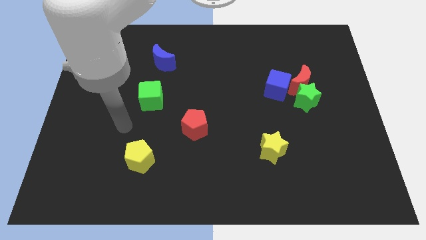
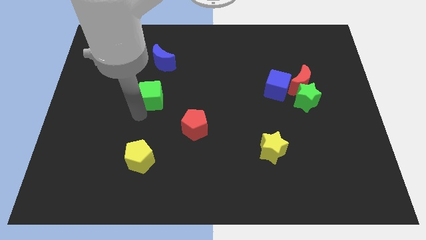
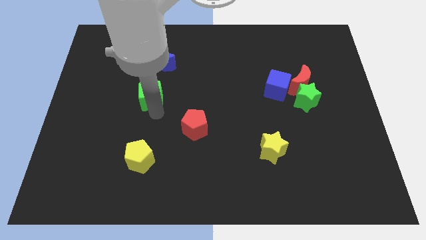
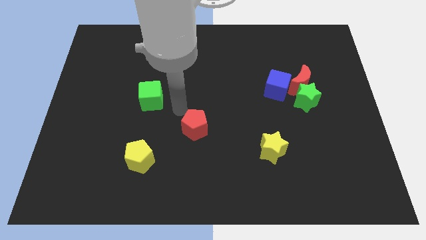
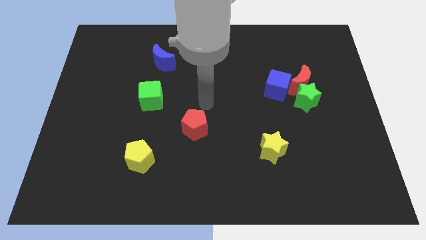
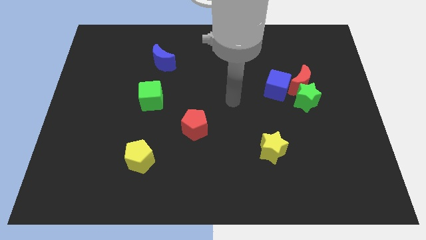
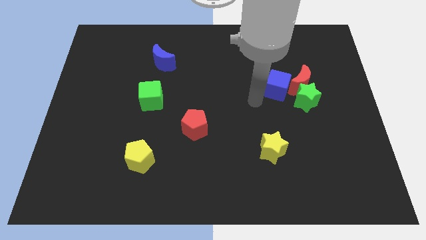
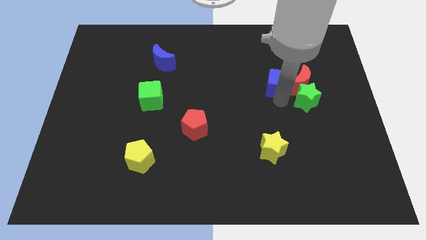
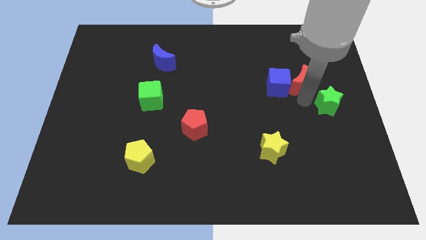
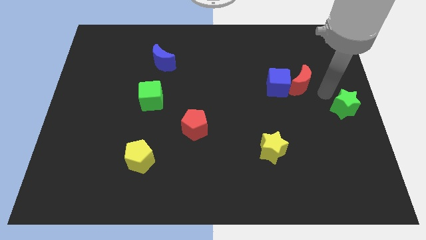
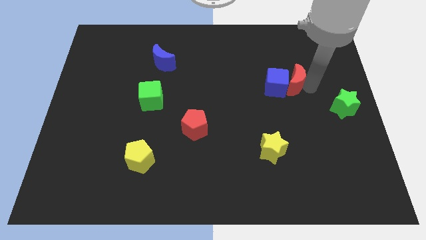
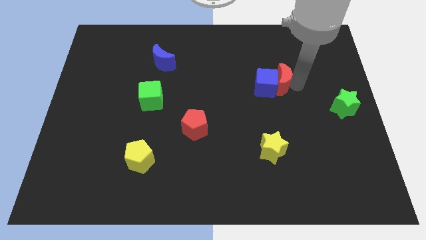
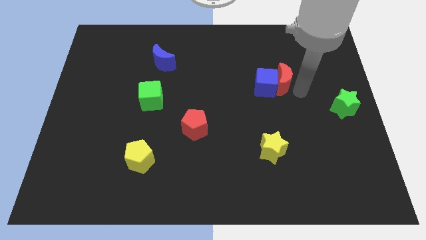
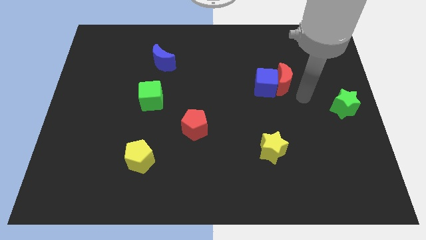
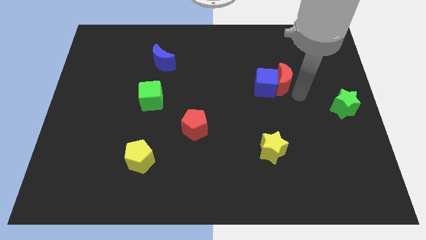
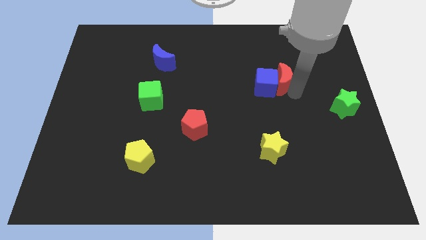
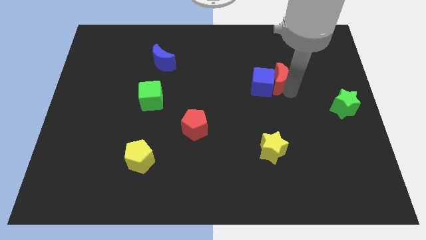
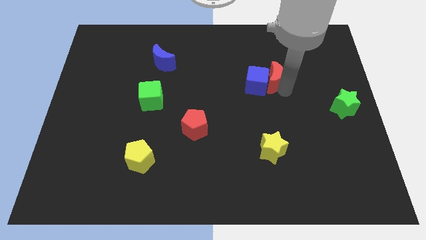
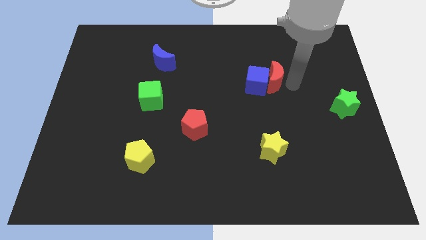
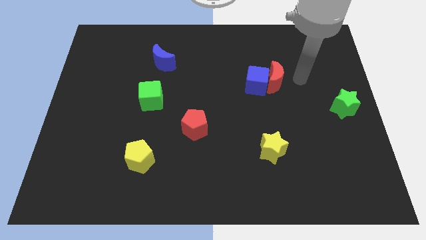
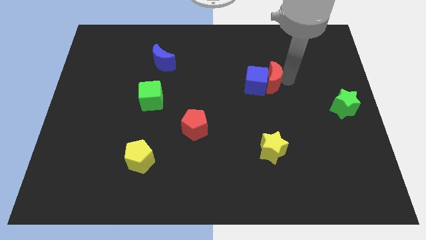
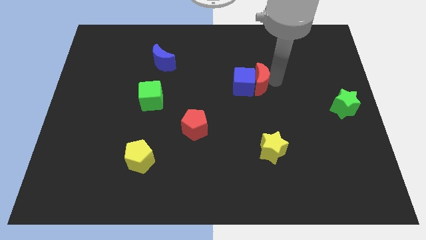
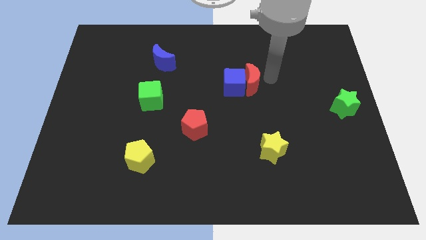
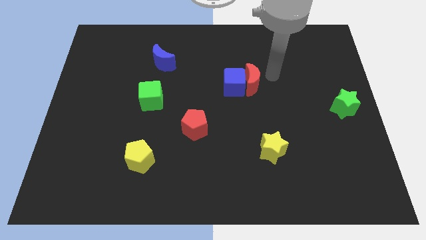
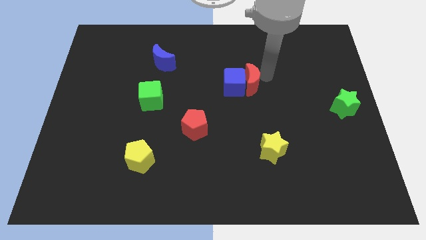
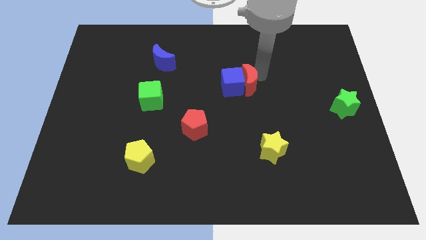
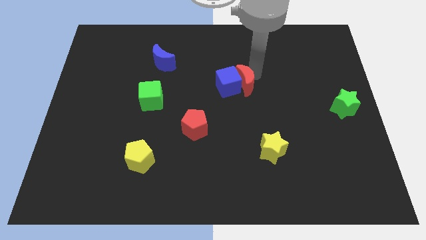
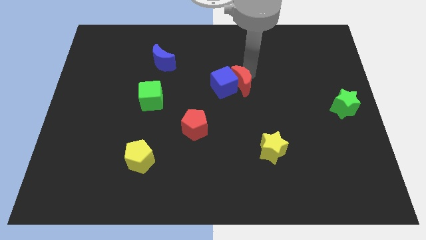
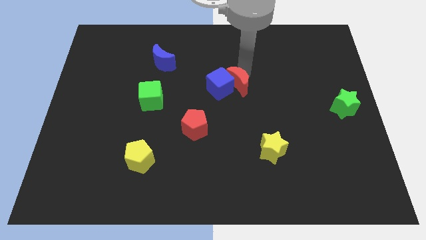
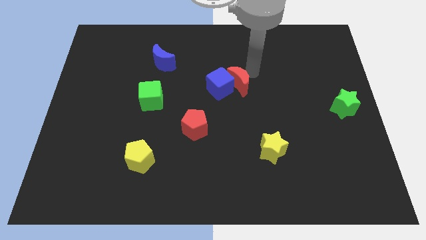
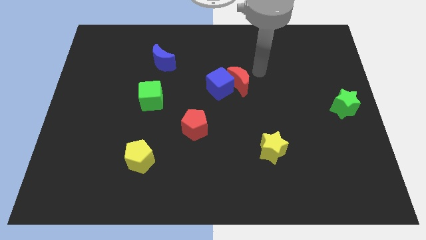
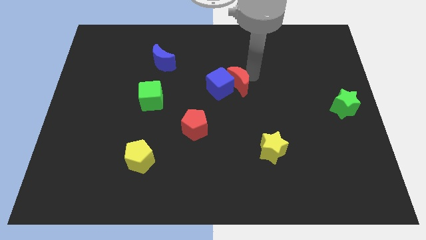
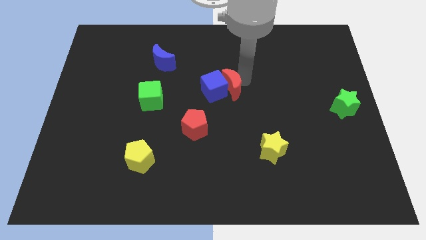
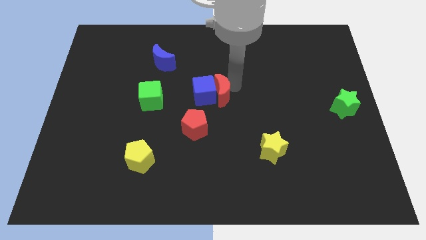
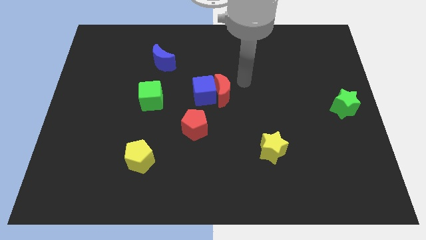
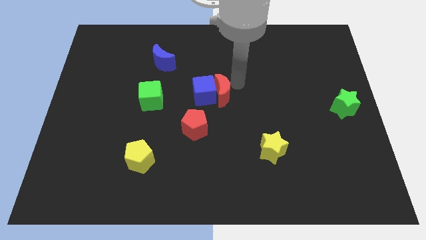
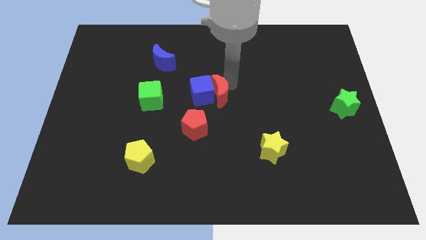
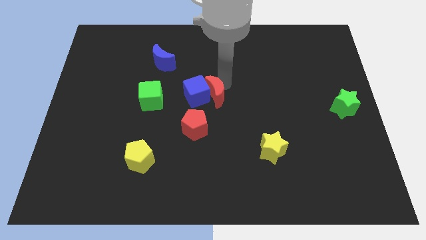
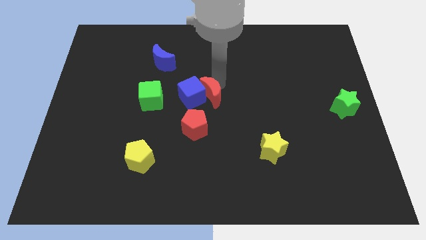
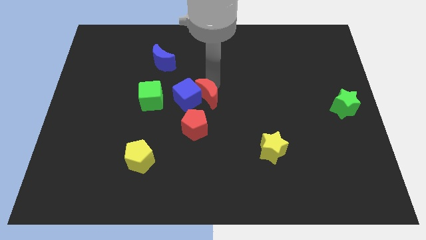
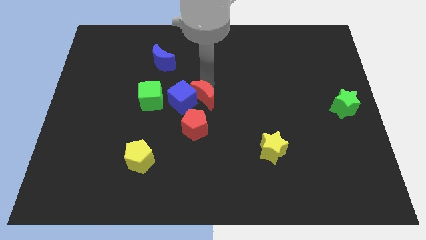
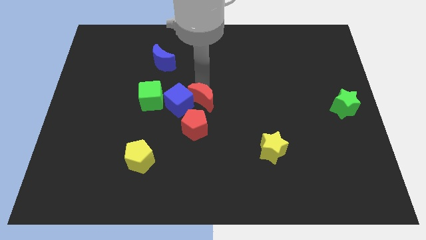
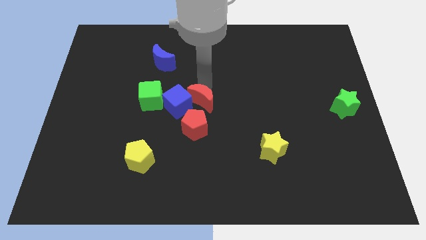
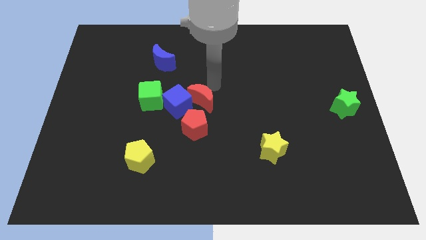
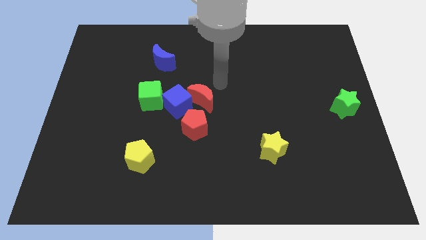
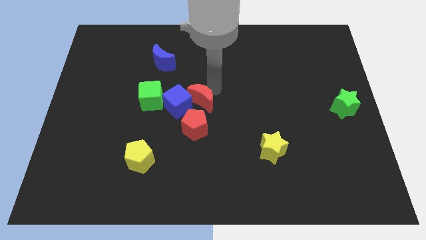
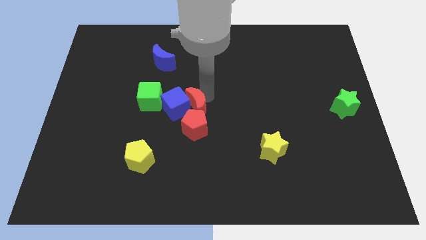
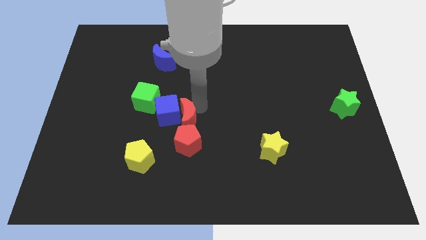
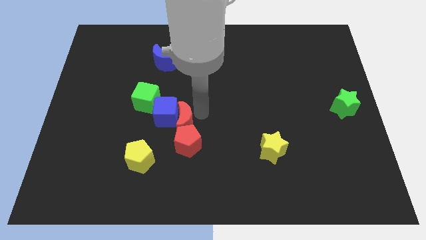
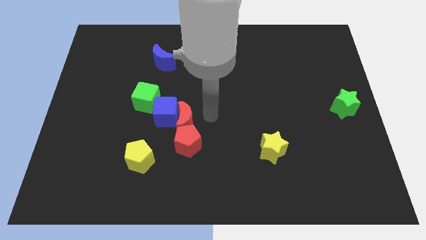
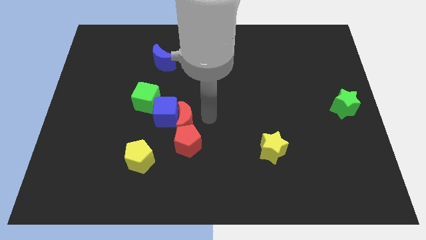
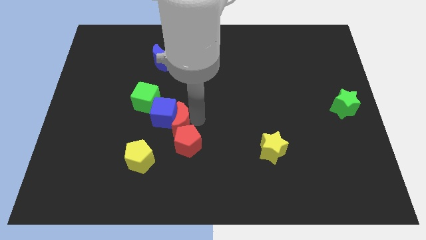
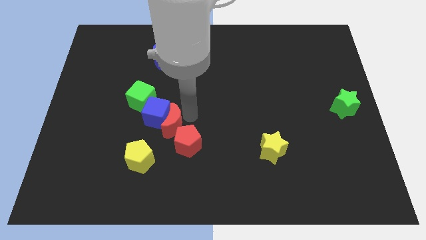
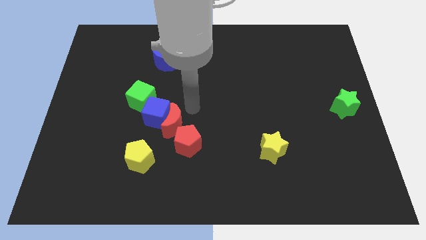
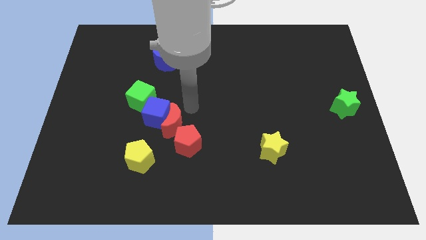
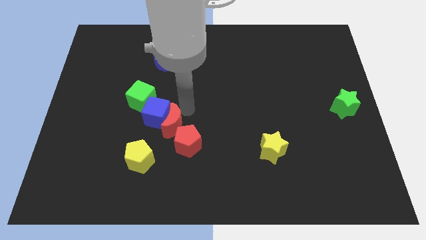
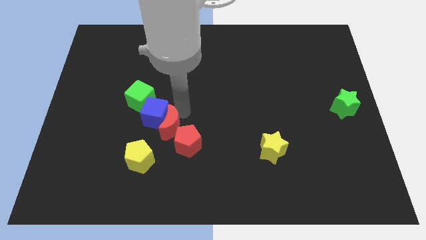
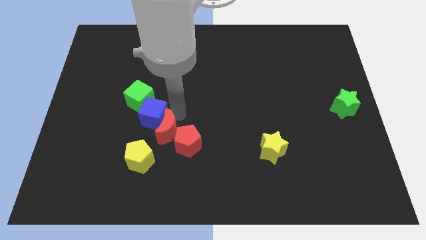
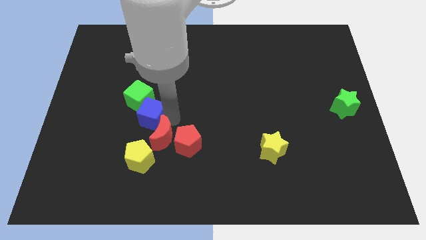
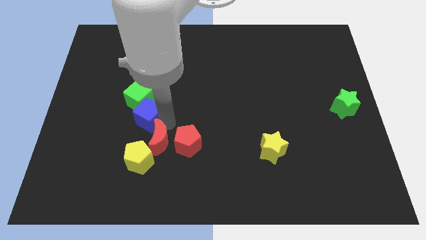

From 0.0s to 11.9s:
put the red moon towards the yellow pentagon

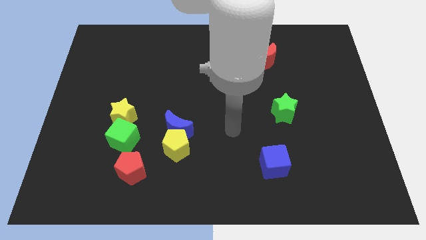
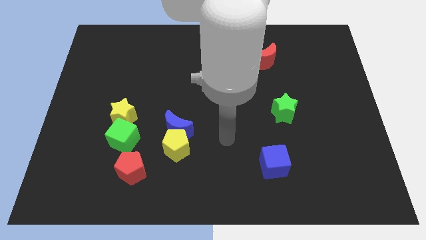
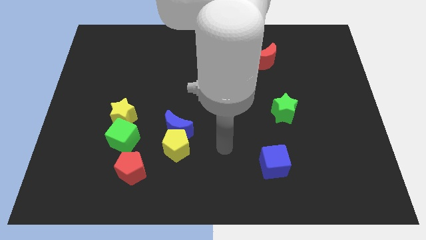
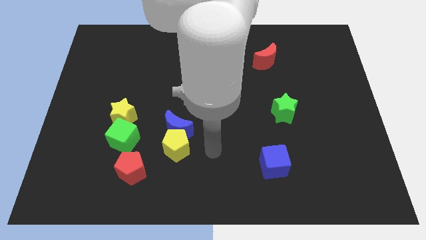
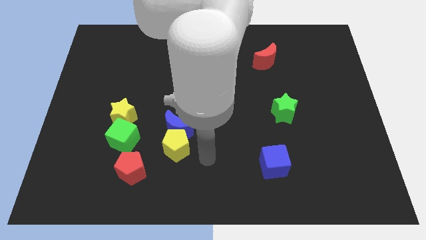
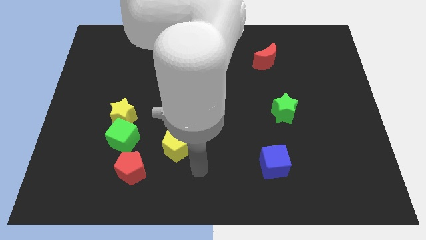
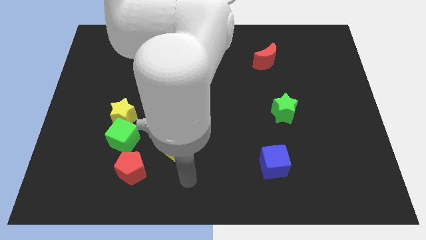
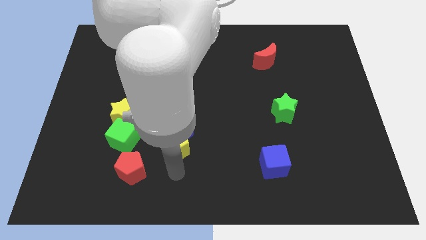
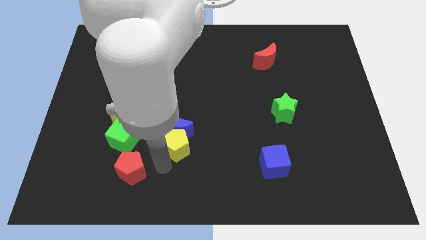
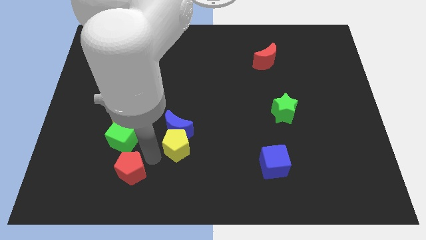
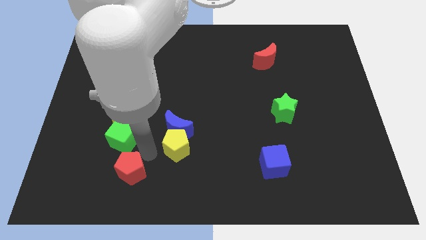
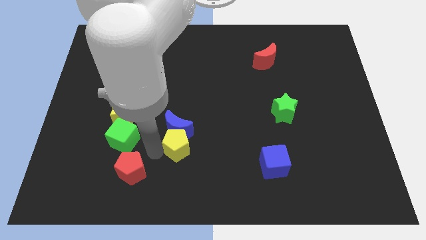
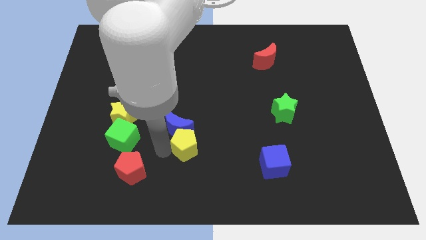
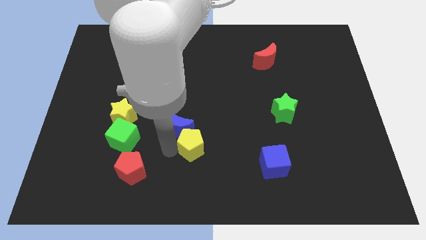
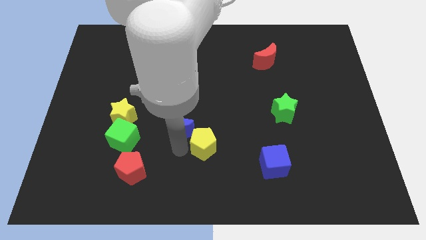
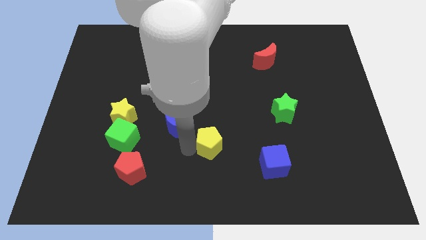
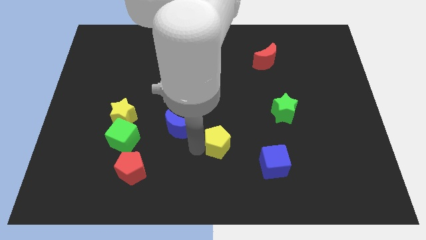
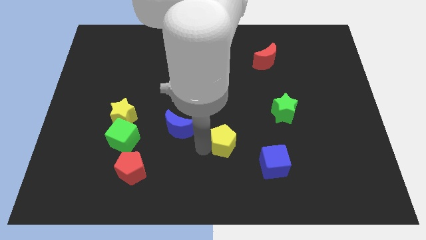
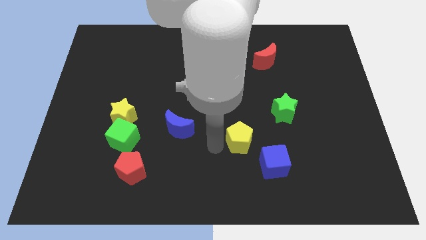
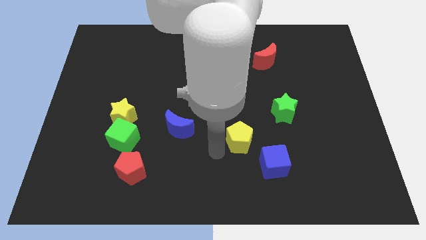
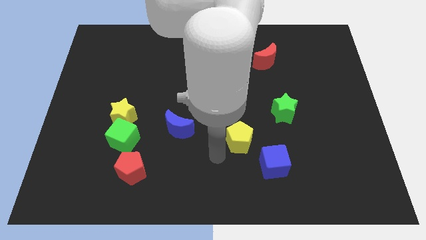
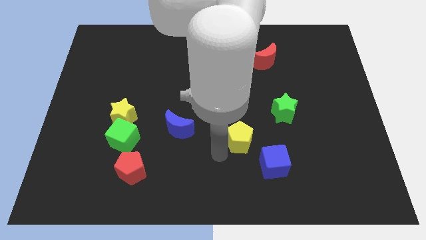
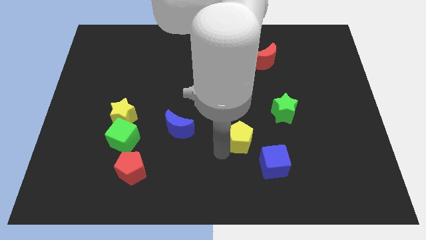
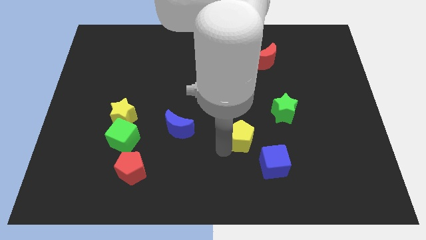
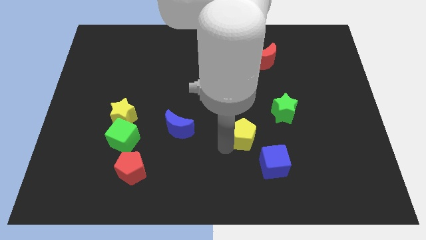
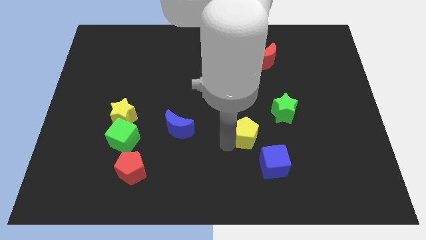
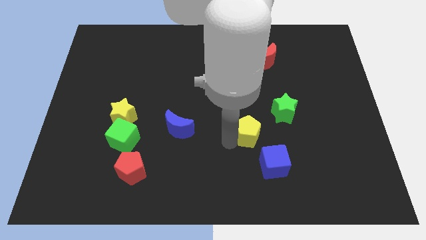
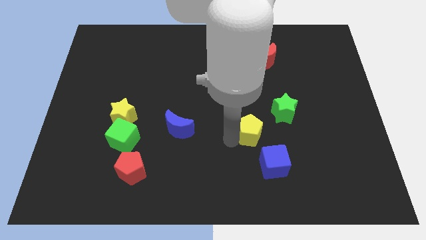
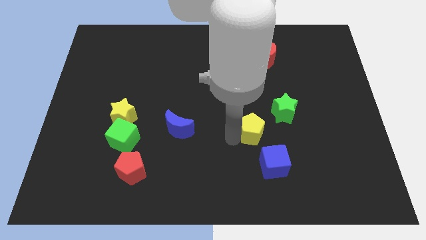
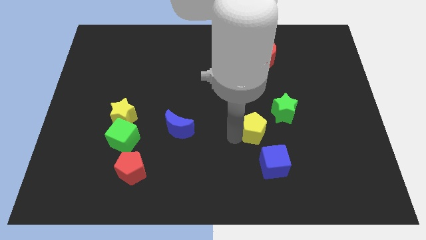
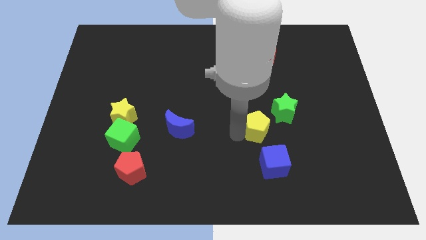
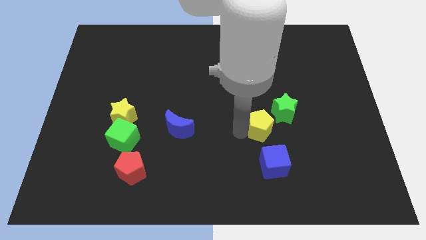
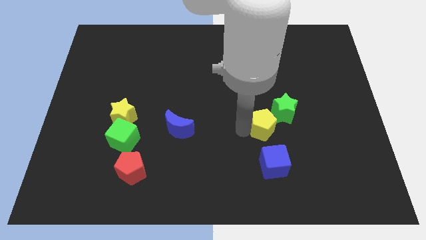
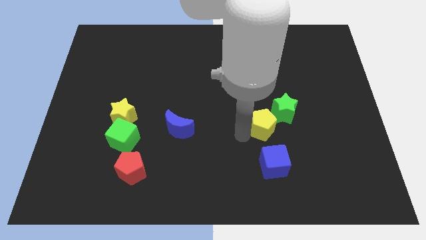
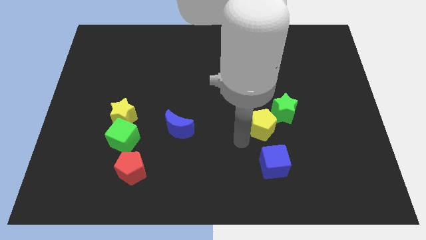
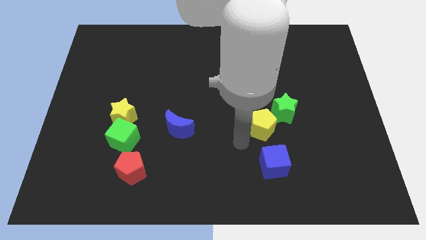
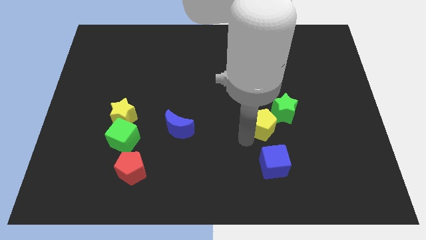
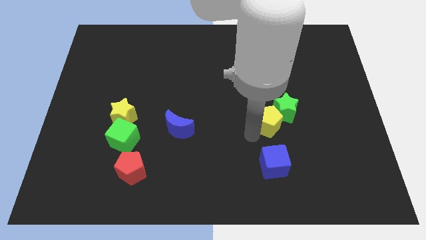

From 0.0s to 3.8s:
move the yellow pentagon next to the green star
